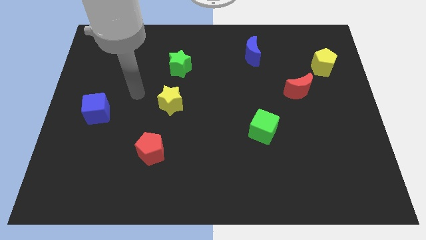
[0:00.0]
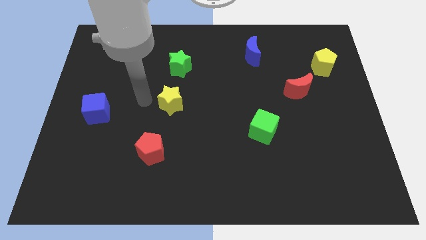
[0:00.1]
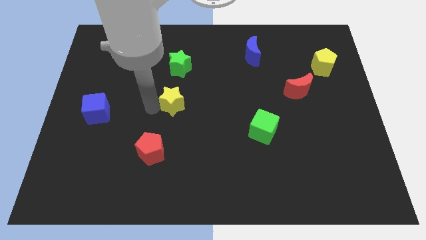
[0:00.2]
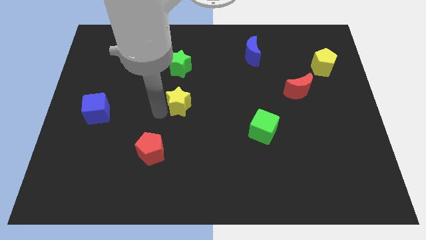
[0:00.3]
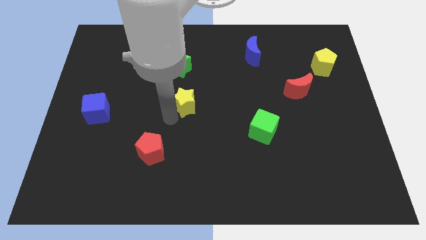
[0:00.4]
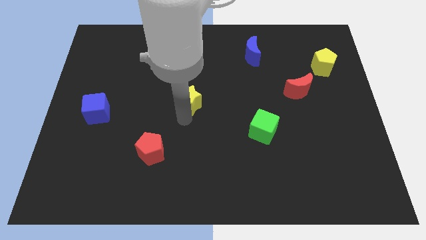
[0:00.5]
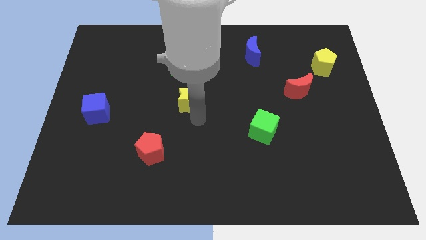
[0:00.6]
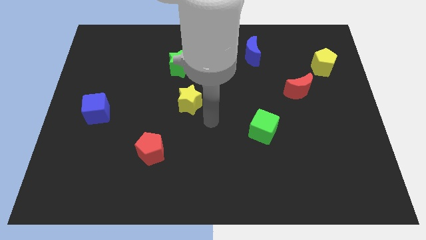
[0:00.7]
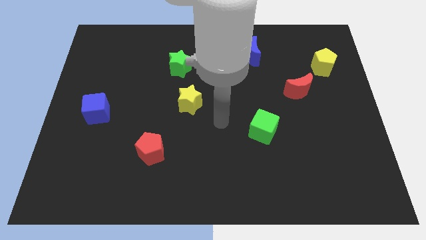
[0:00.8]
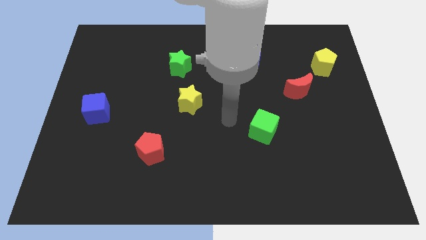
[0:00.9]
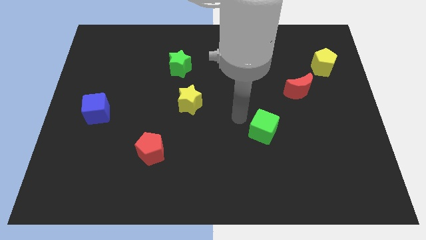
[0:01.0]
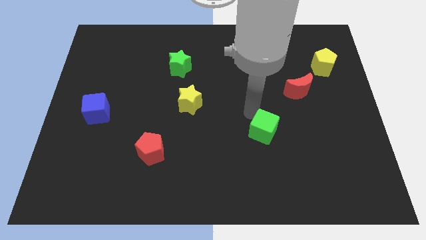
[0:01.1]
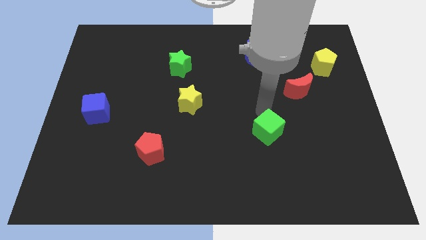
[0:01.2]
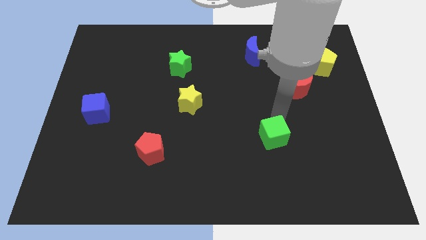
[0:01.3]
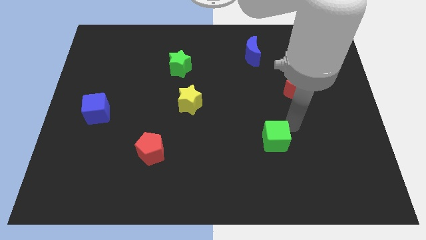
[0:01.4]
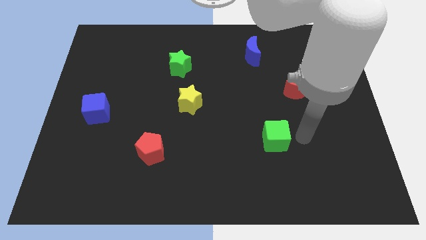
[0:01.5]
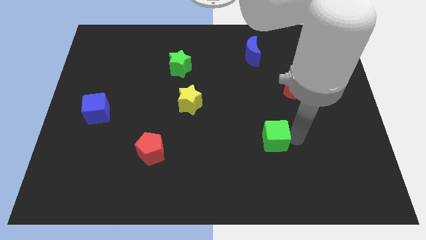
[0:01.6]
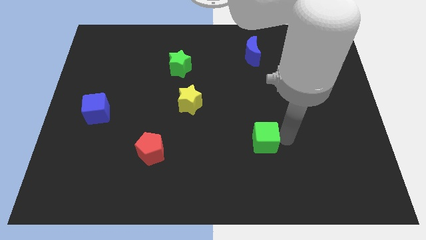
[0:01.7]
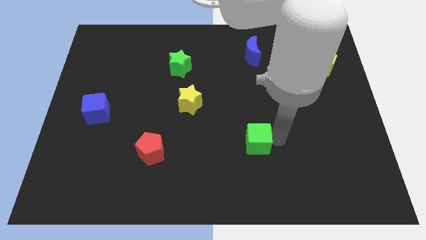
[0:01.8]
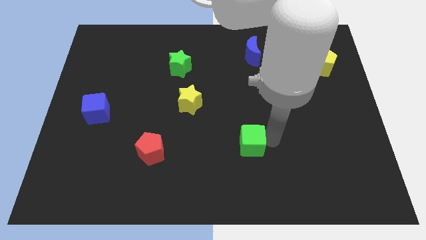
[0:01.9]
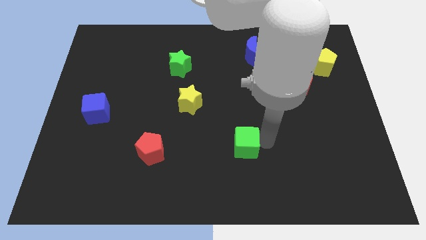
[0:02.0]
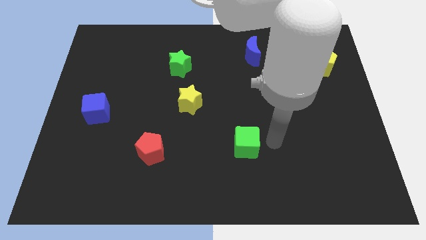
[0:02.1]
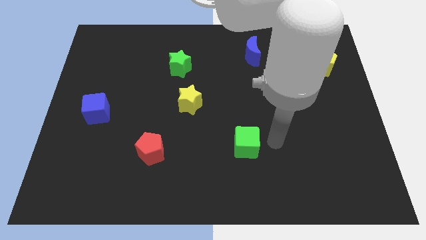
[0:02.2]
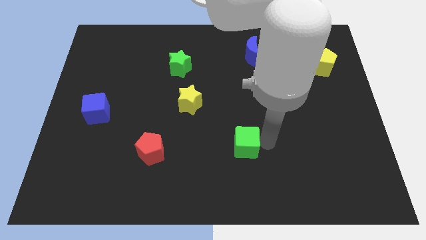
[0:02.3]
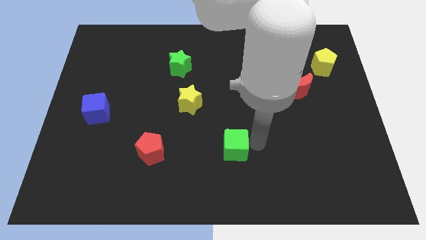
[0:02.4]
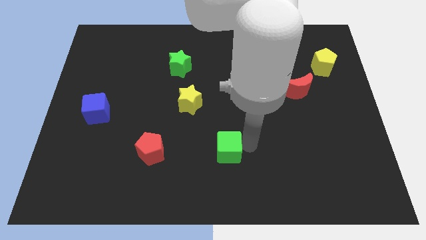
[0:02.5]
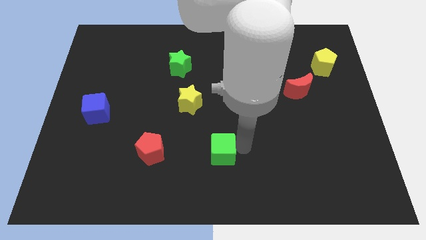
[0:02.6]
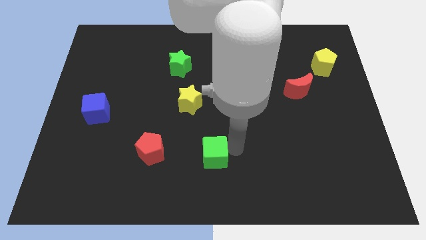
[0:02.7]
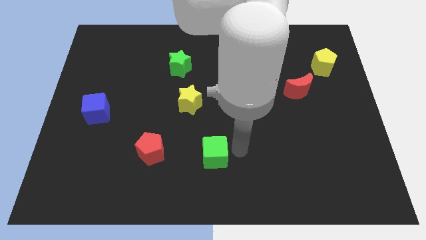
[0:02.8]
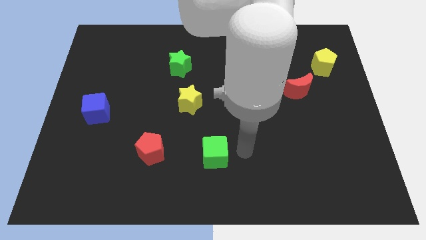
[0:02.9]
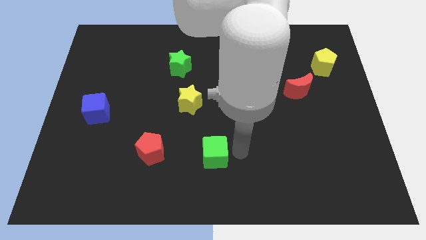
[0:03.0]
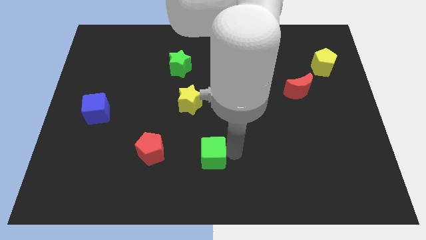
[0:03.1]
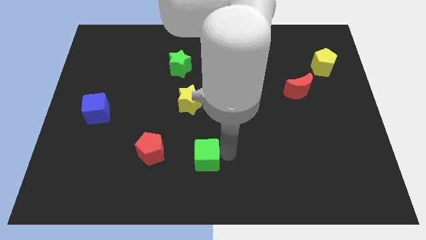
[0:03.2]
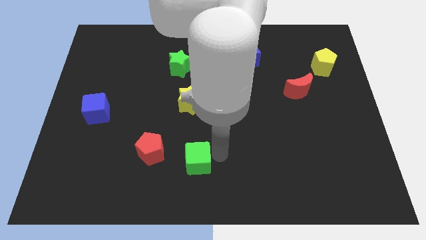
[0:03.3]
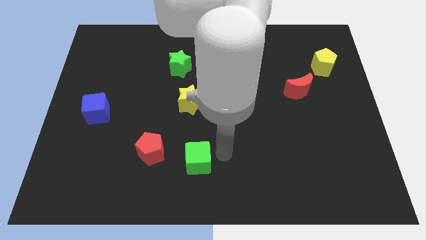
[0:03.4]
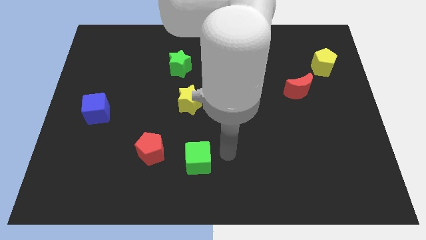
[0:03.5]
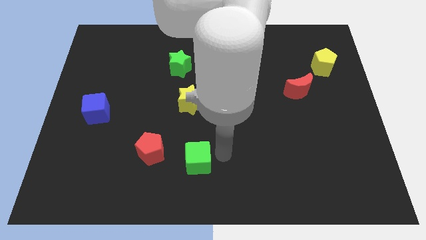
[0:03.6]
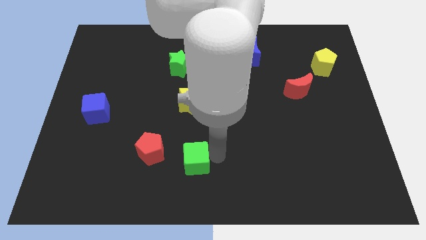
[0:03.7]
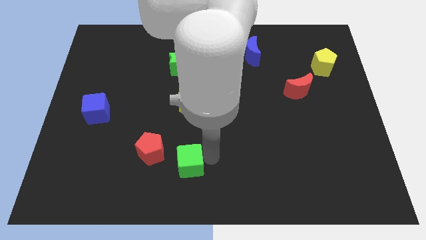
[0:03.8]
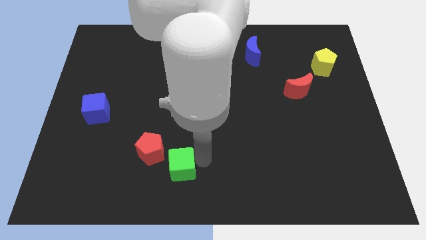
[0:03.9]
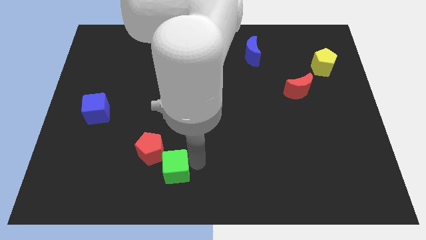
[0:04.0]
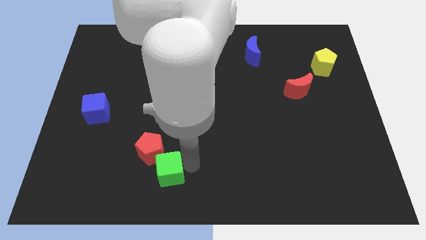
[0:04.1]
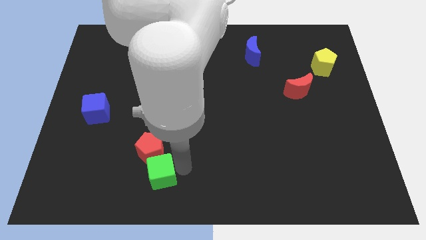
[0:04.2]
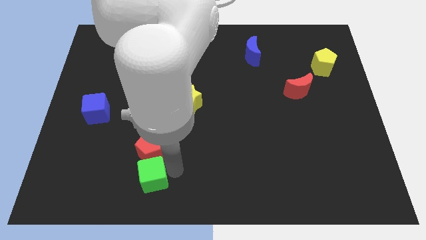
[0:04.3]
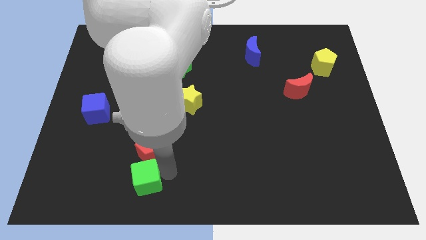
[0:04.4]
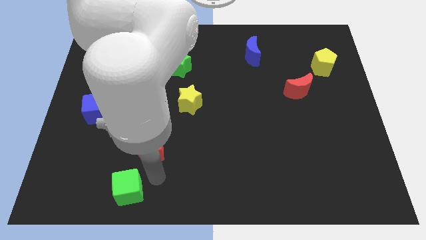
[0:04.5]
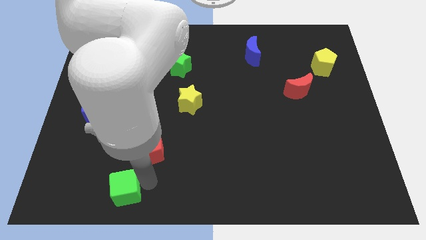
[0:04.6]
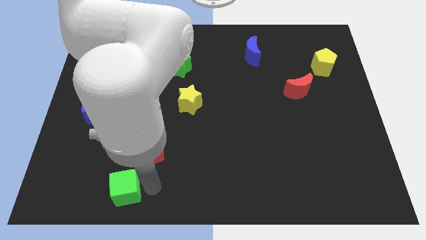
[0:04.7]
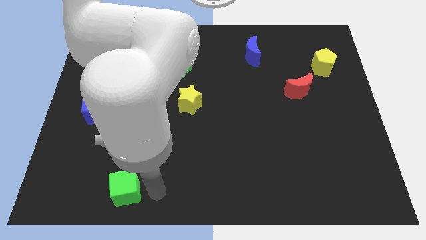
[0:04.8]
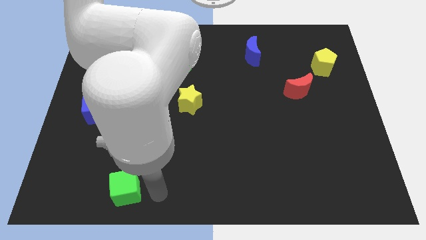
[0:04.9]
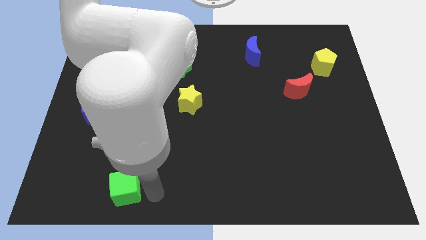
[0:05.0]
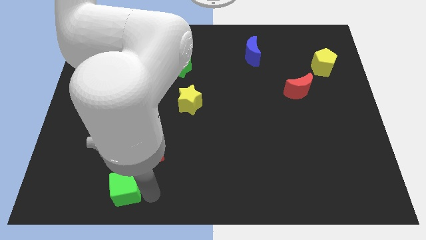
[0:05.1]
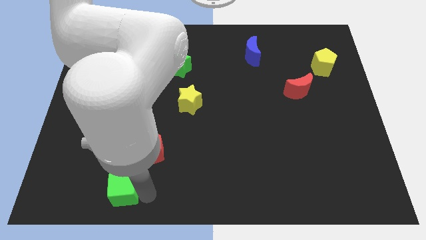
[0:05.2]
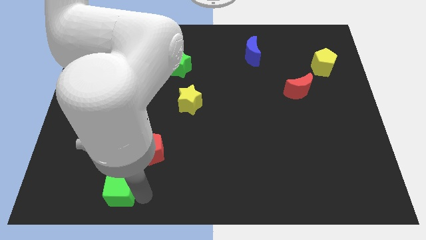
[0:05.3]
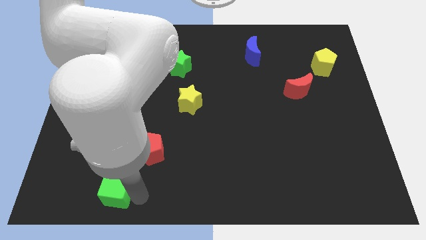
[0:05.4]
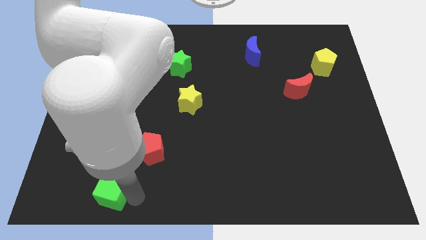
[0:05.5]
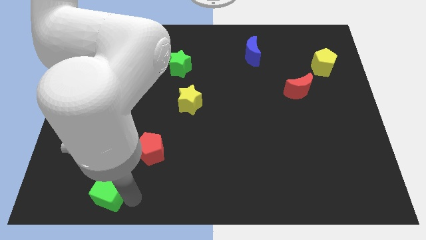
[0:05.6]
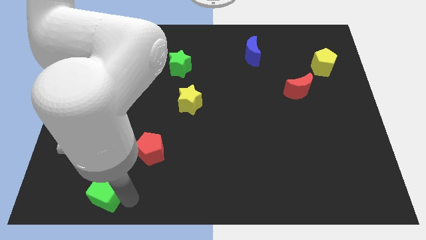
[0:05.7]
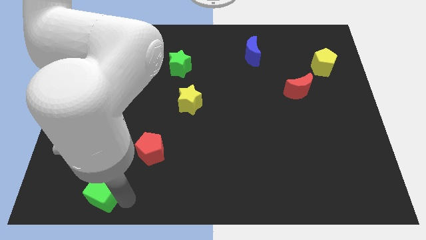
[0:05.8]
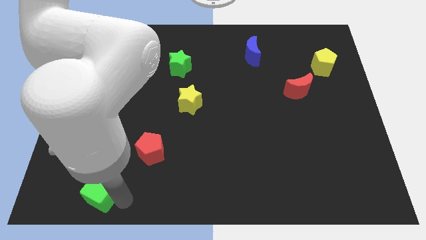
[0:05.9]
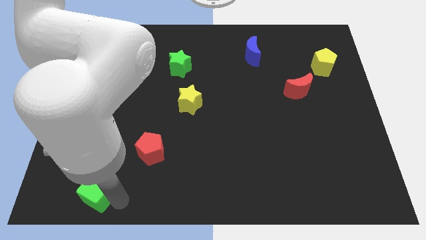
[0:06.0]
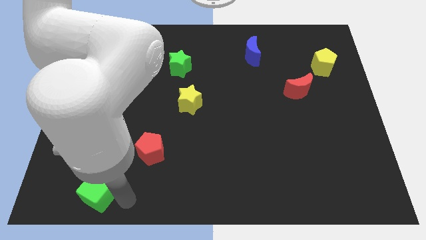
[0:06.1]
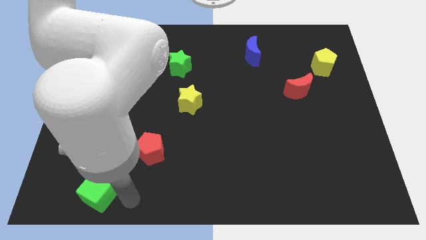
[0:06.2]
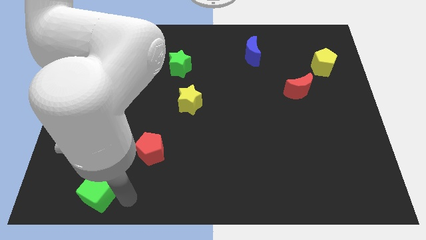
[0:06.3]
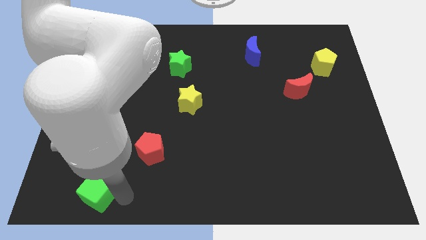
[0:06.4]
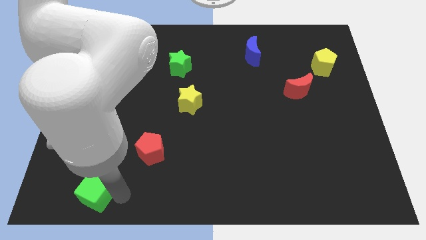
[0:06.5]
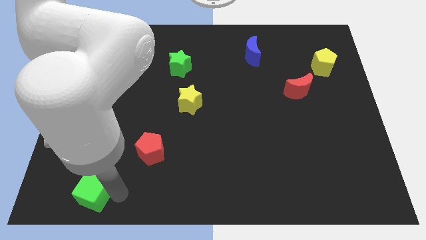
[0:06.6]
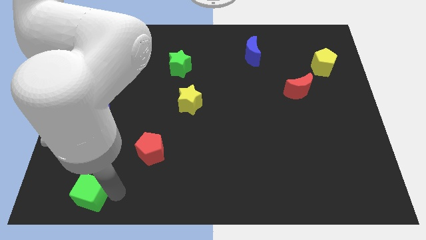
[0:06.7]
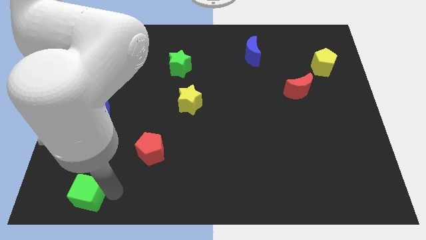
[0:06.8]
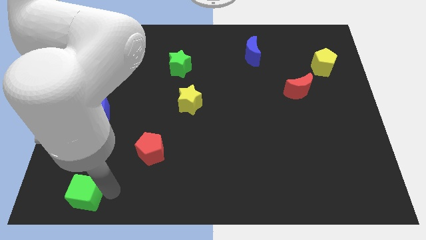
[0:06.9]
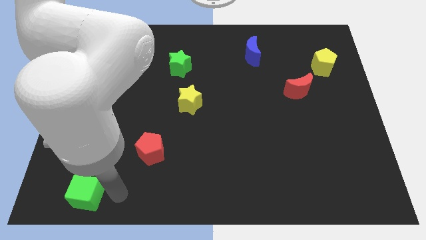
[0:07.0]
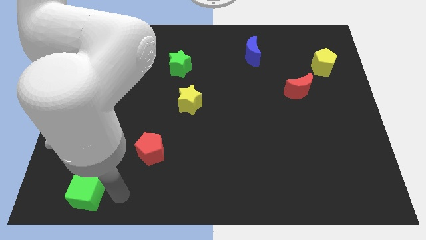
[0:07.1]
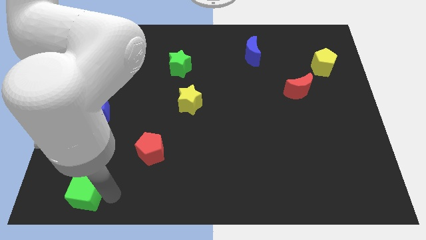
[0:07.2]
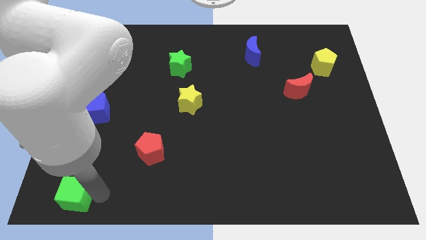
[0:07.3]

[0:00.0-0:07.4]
put the green cube to the bottom left corner
